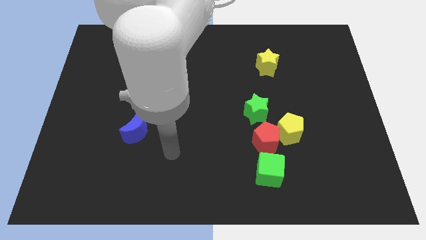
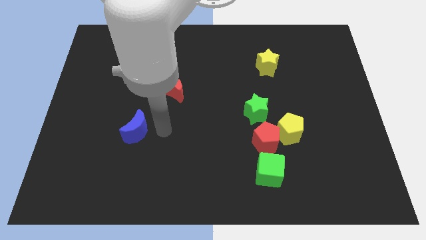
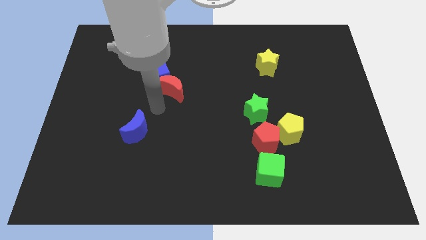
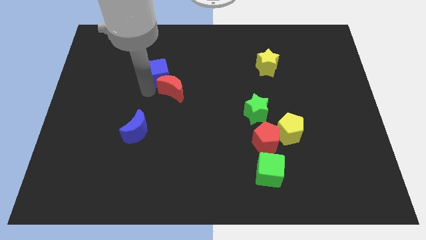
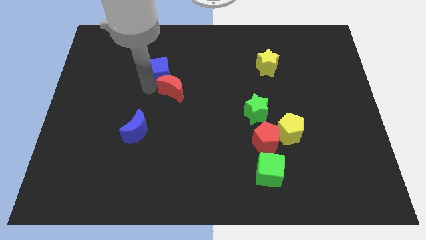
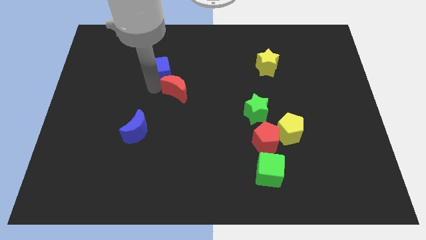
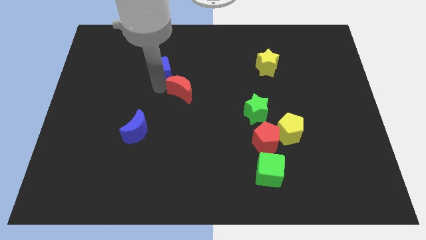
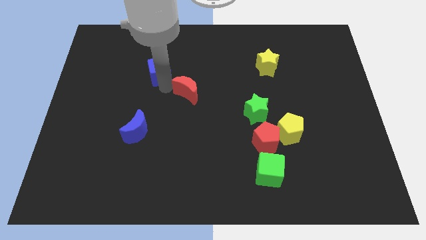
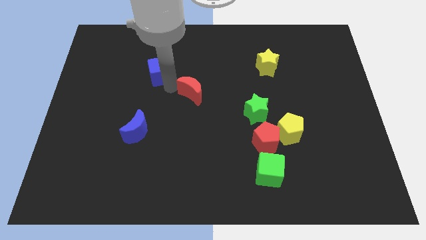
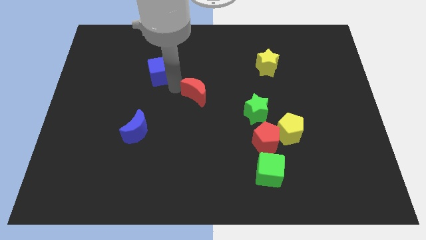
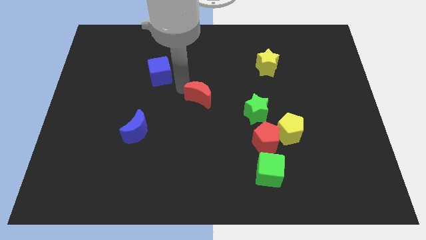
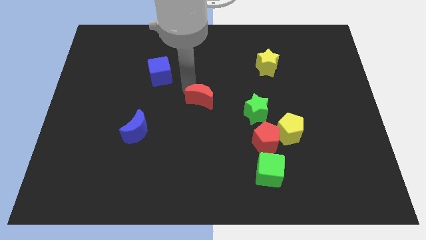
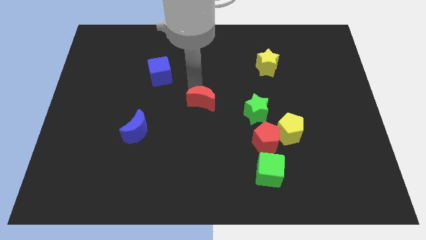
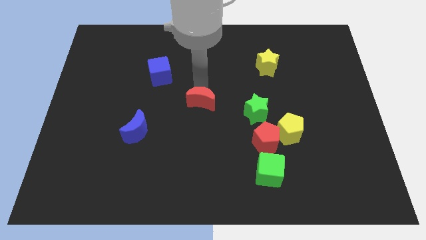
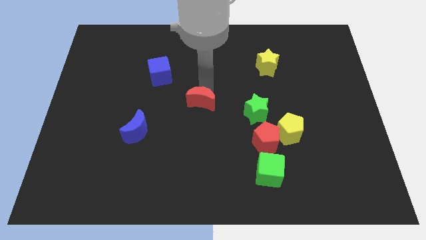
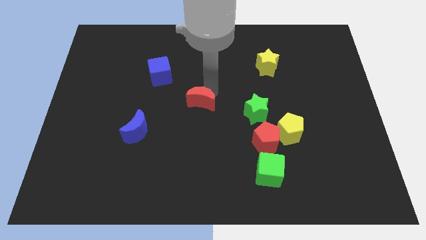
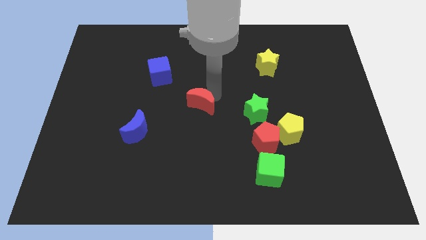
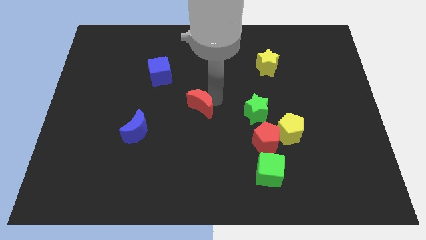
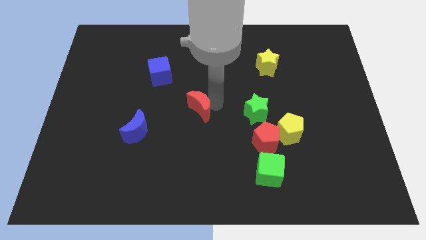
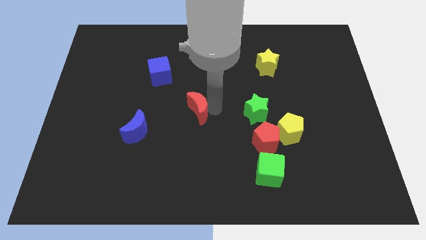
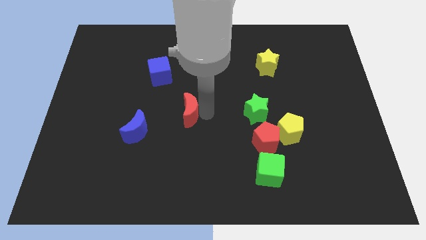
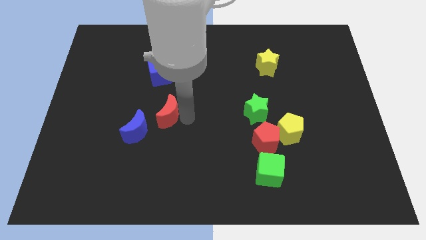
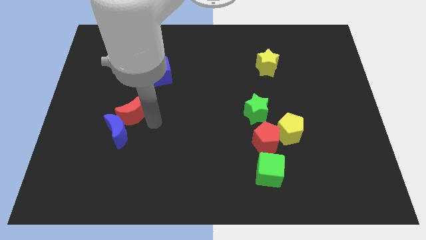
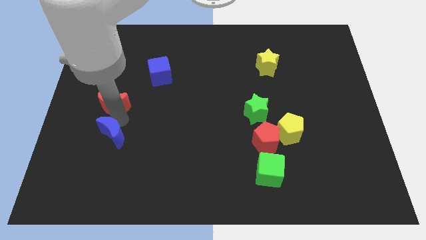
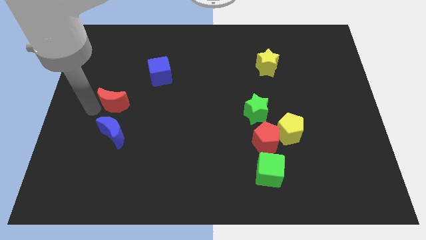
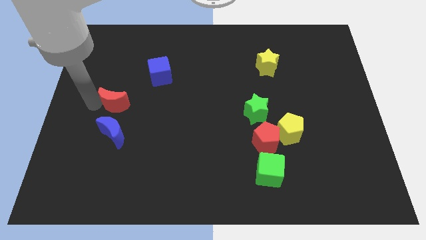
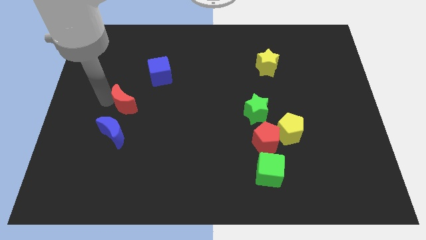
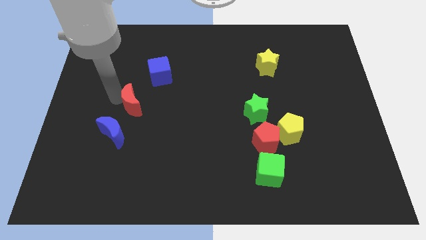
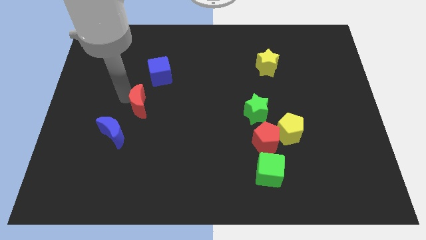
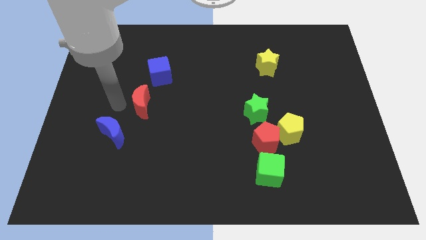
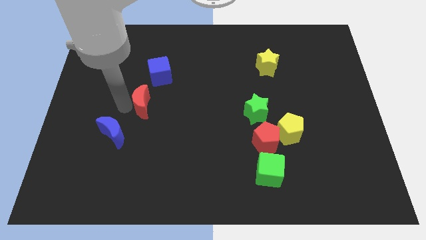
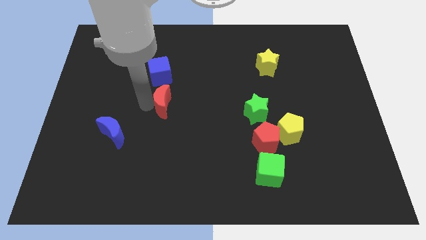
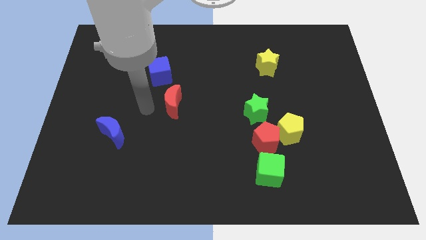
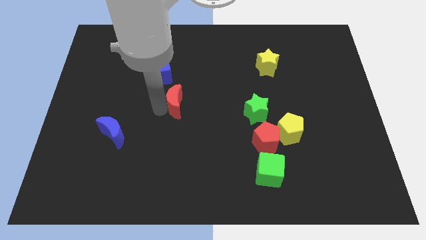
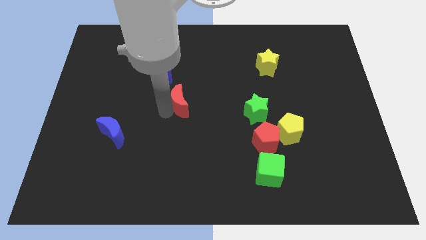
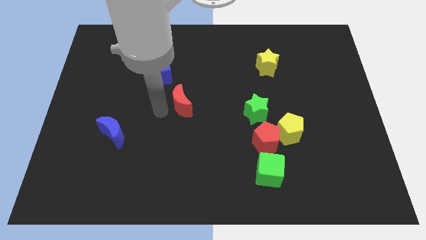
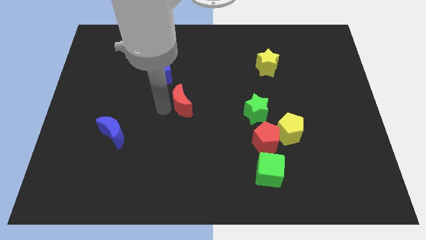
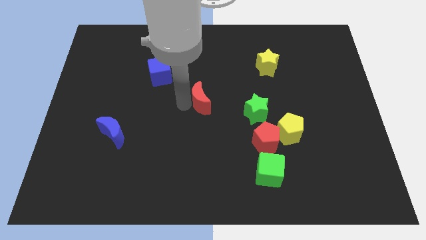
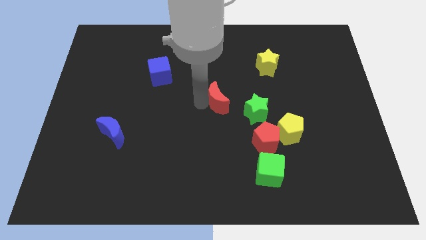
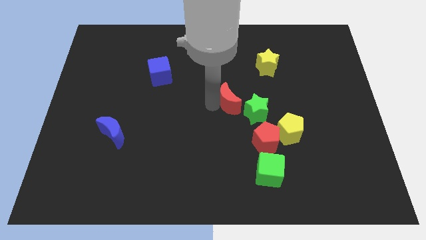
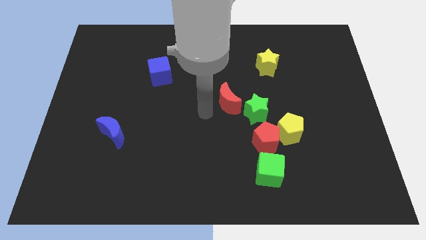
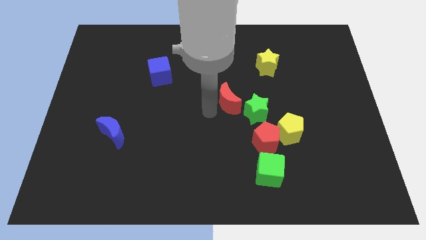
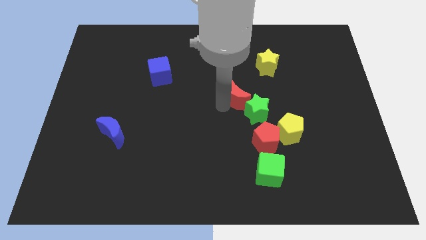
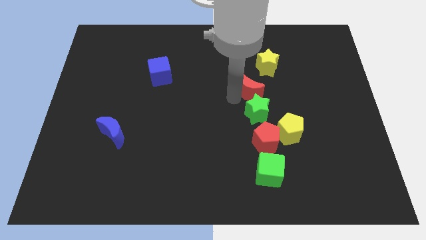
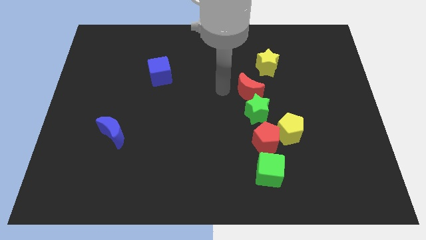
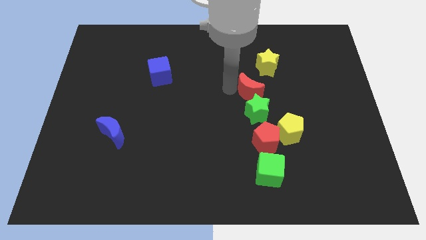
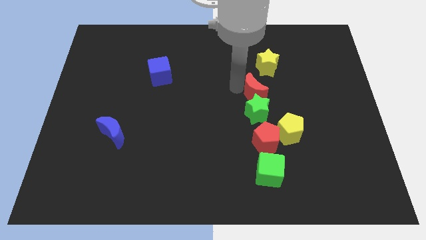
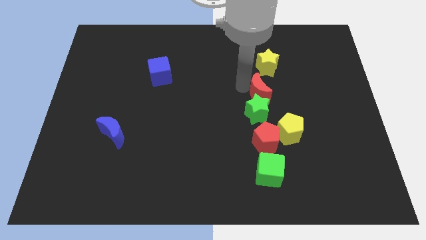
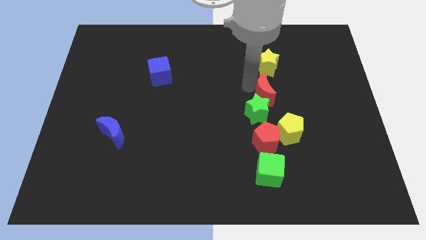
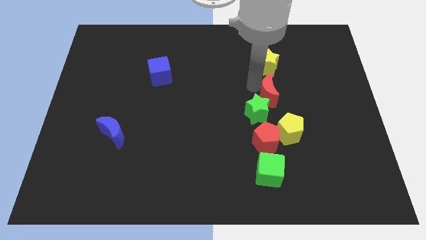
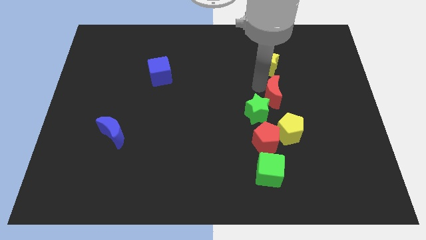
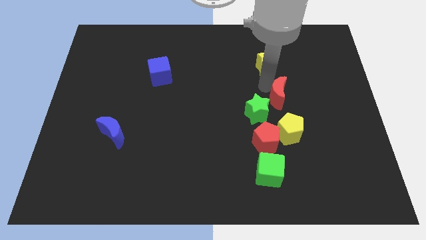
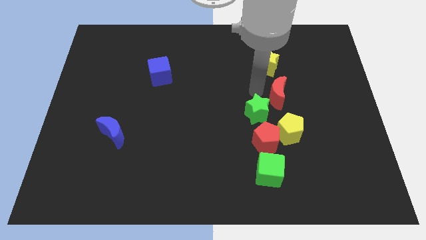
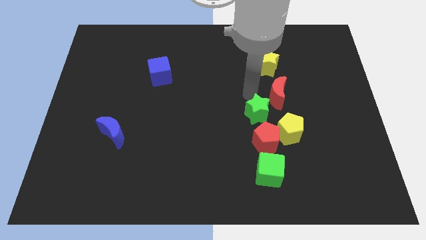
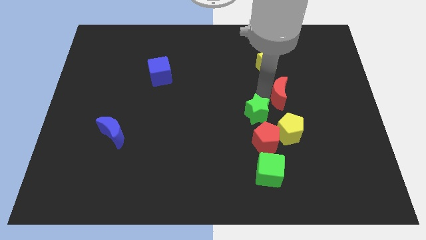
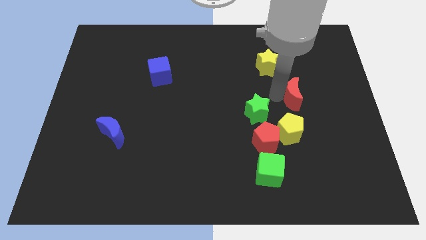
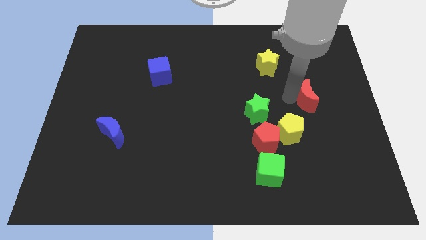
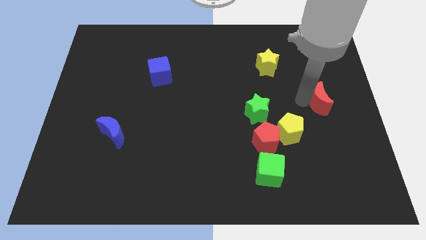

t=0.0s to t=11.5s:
slide the red moon to the right side
